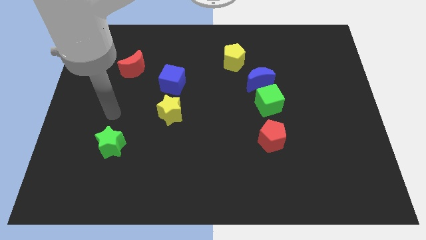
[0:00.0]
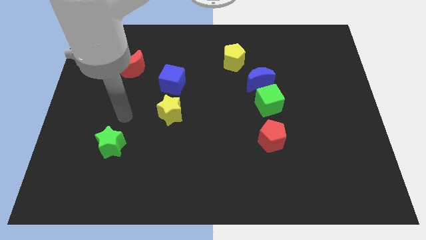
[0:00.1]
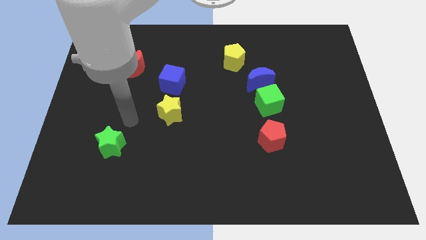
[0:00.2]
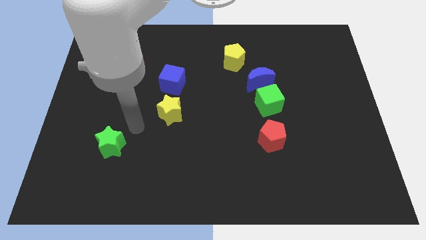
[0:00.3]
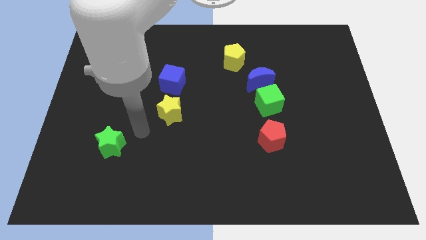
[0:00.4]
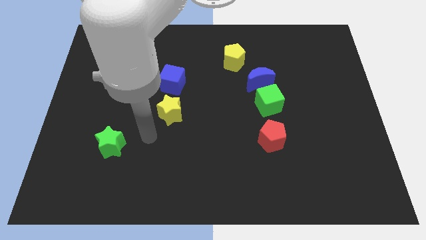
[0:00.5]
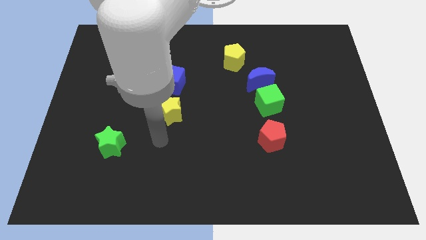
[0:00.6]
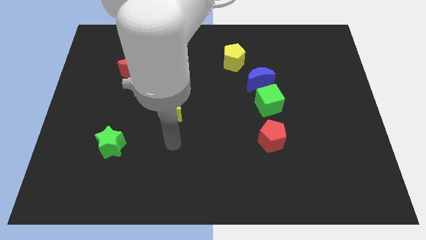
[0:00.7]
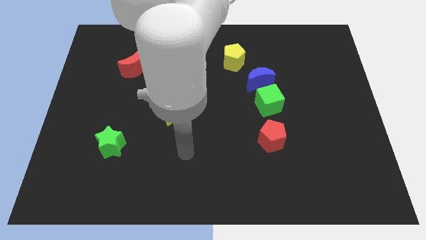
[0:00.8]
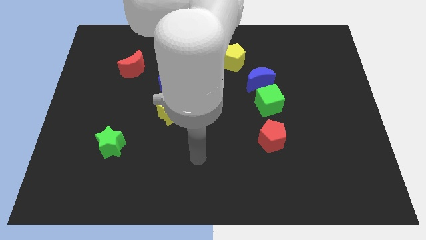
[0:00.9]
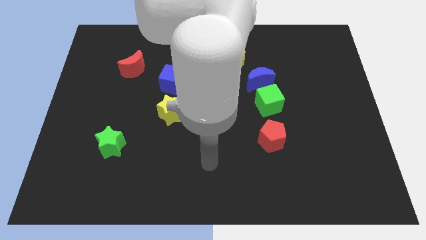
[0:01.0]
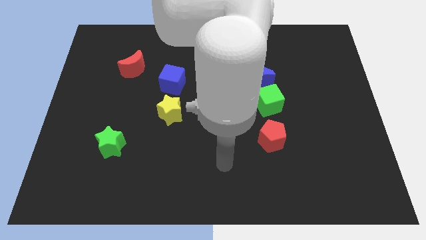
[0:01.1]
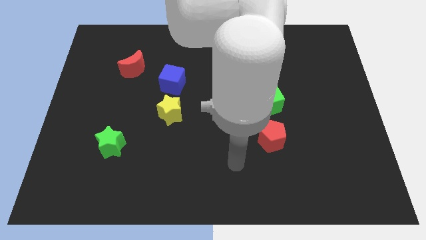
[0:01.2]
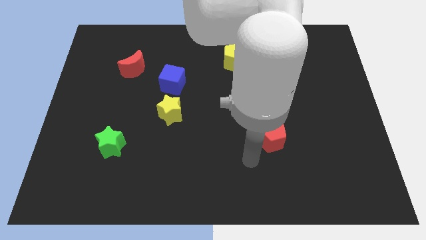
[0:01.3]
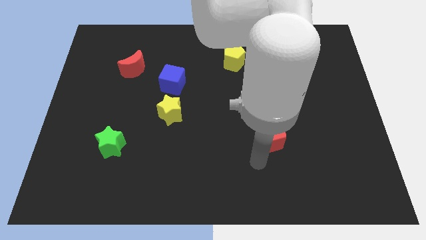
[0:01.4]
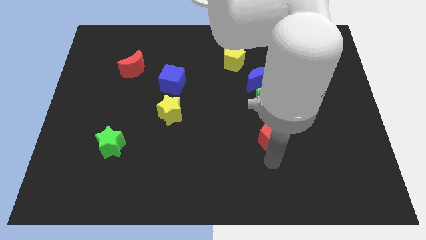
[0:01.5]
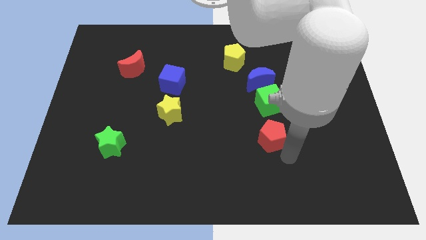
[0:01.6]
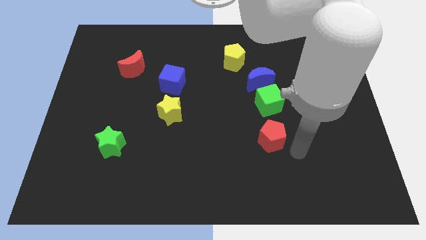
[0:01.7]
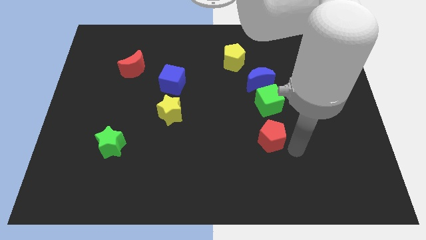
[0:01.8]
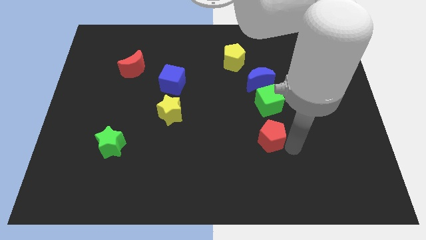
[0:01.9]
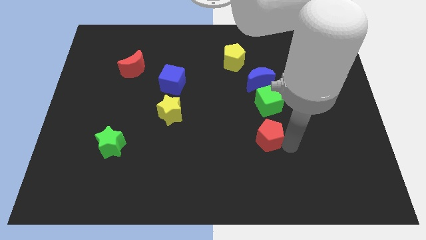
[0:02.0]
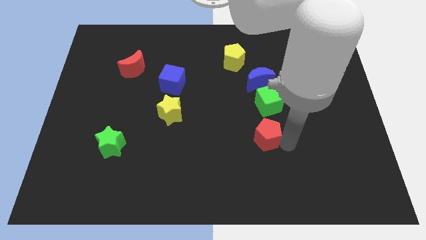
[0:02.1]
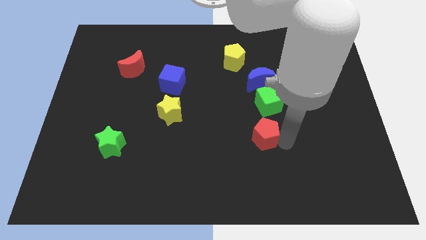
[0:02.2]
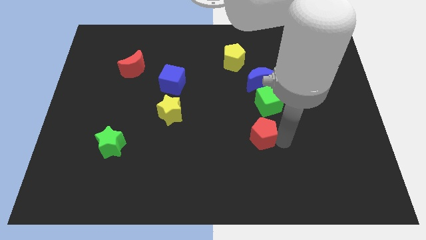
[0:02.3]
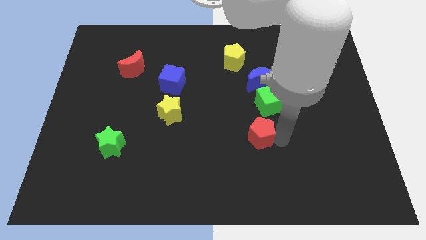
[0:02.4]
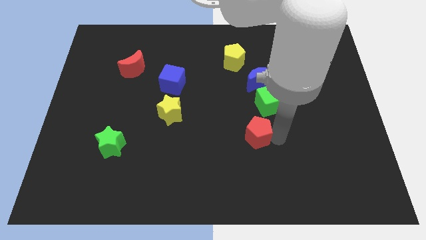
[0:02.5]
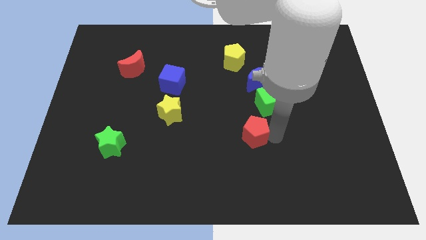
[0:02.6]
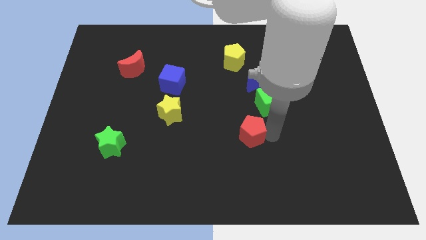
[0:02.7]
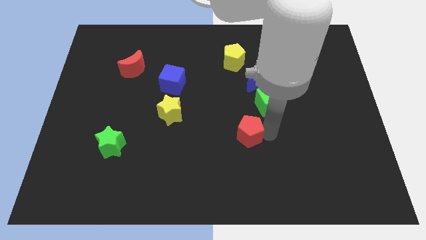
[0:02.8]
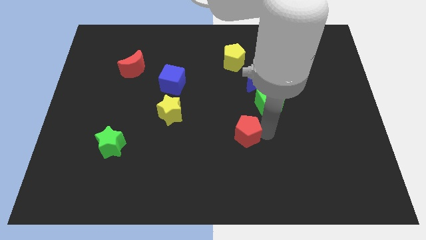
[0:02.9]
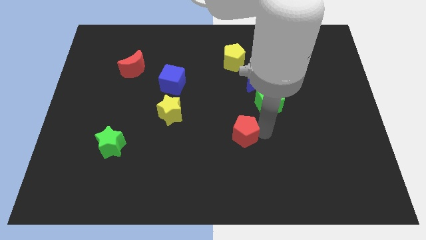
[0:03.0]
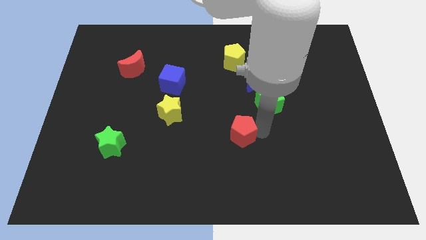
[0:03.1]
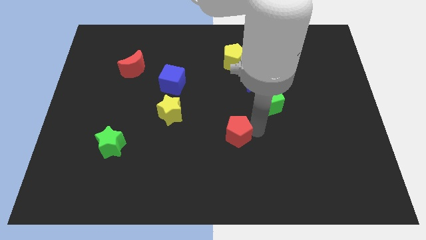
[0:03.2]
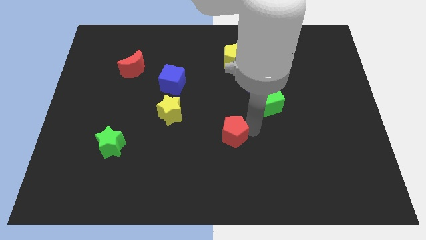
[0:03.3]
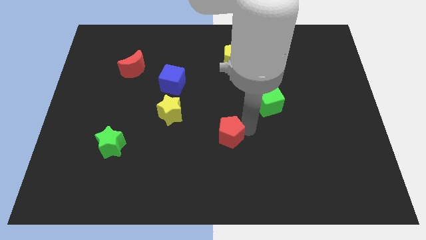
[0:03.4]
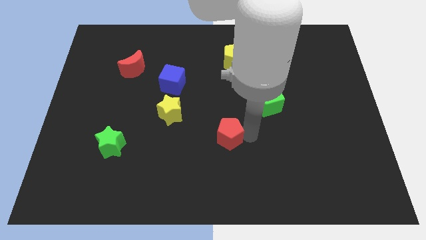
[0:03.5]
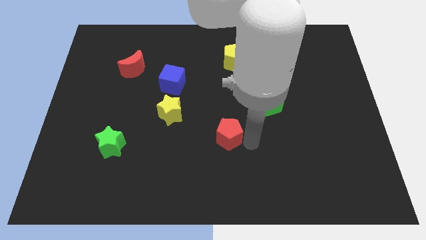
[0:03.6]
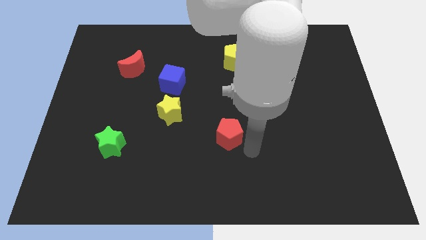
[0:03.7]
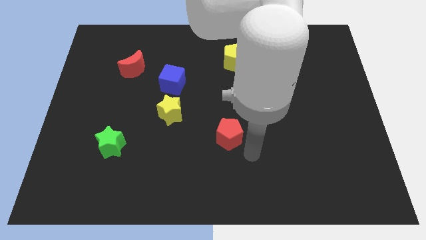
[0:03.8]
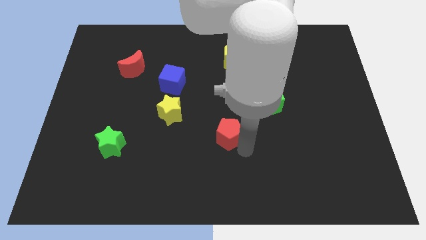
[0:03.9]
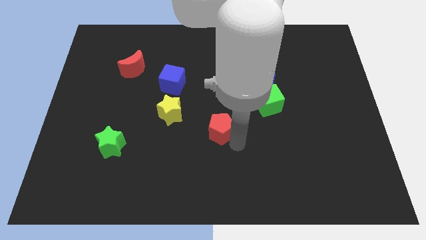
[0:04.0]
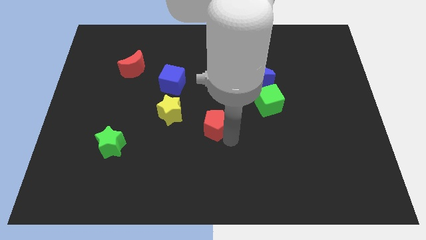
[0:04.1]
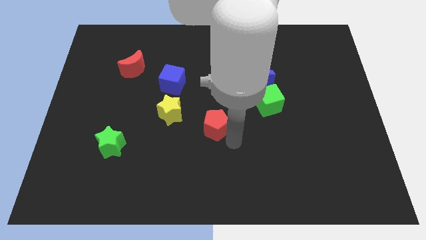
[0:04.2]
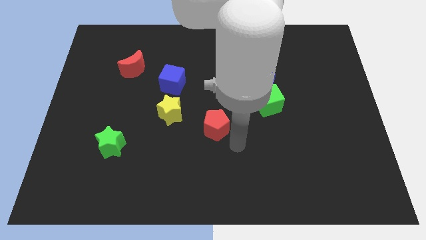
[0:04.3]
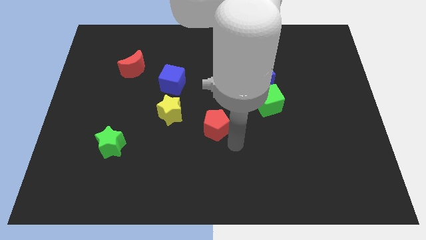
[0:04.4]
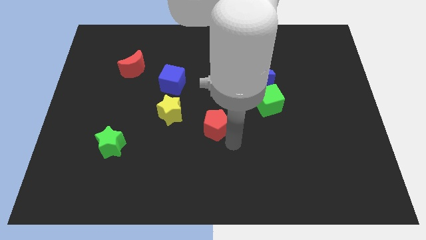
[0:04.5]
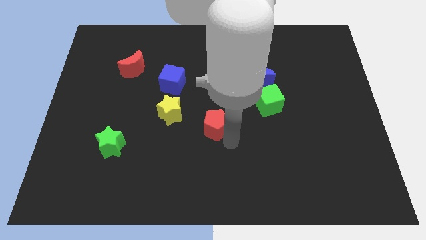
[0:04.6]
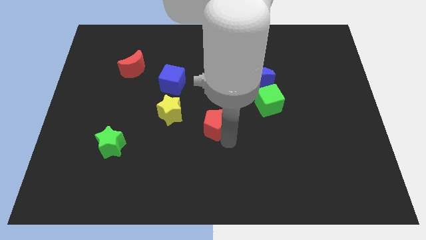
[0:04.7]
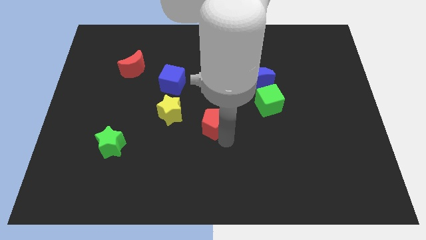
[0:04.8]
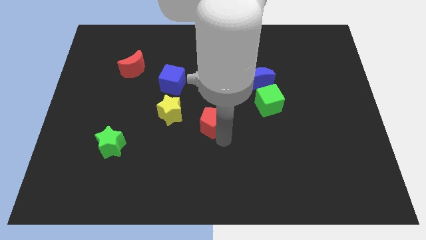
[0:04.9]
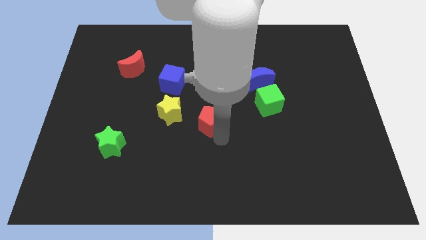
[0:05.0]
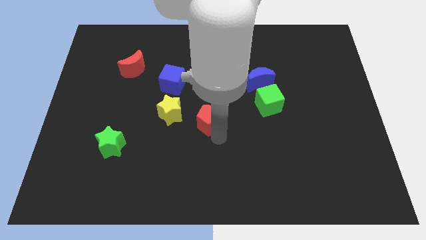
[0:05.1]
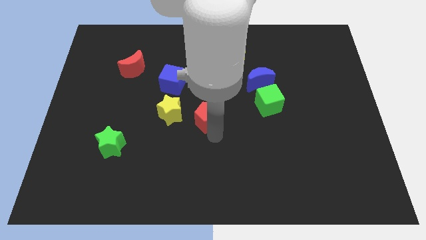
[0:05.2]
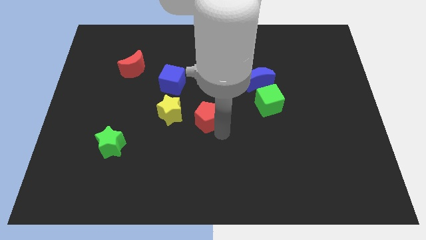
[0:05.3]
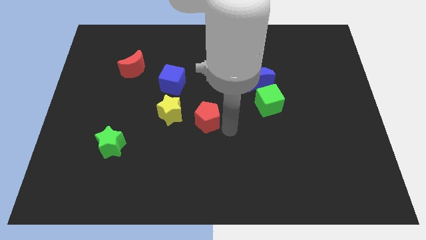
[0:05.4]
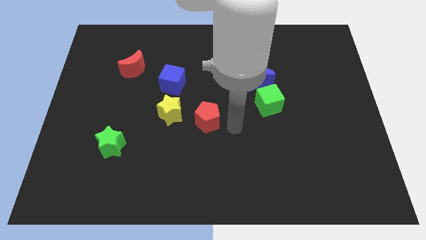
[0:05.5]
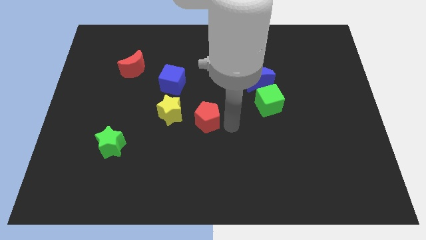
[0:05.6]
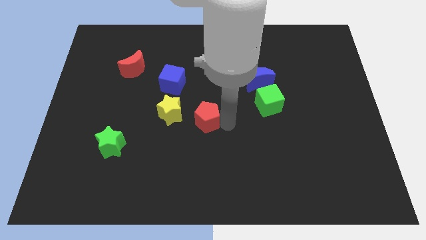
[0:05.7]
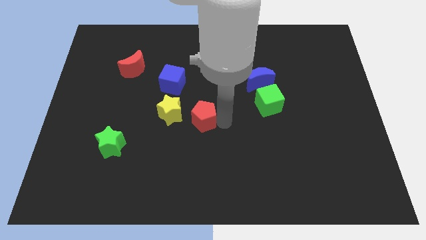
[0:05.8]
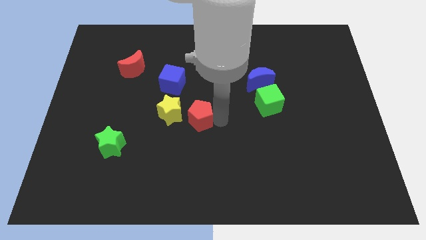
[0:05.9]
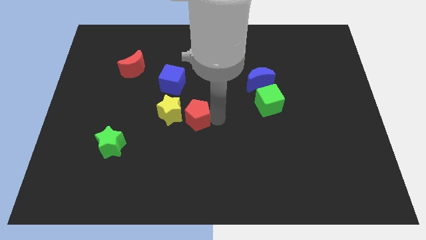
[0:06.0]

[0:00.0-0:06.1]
slide the red pentagon next to the yellow star

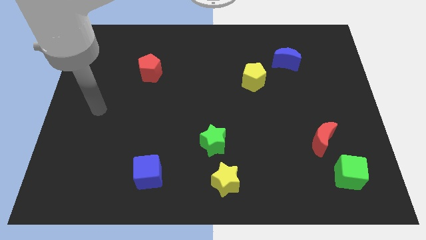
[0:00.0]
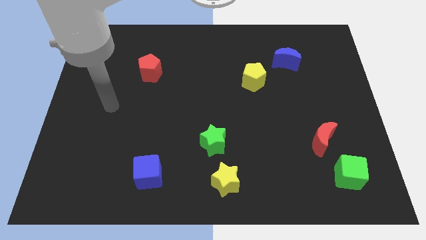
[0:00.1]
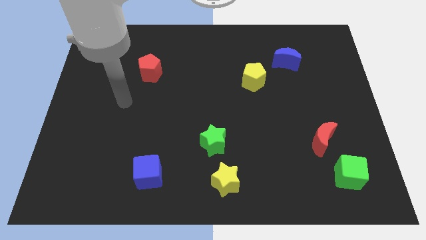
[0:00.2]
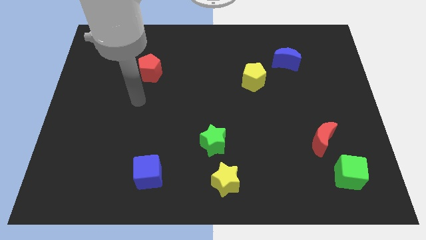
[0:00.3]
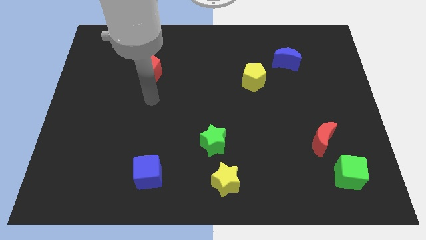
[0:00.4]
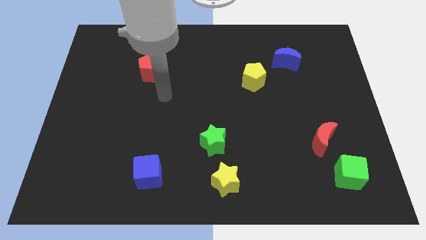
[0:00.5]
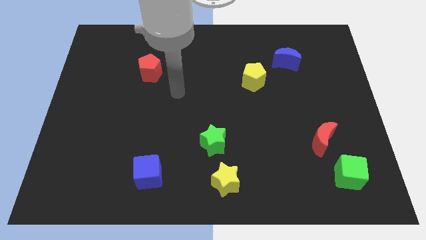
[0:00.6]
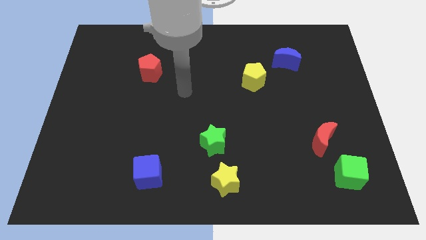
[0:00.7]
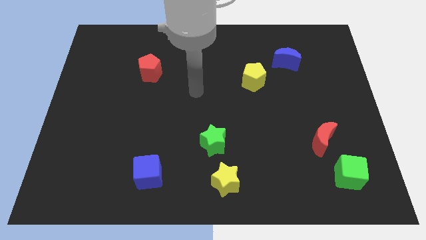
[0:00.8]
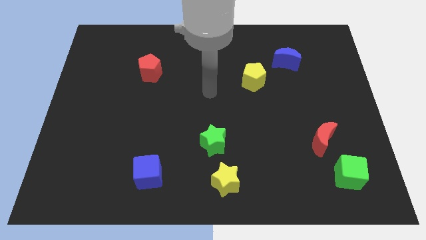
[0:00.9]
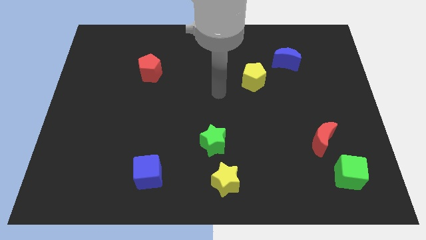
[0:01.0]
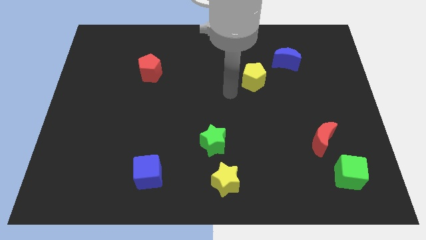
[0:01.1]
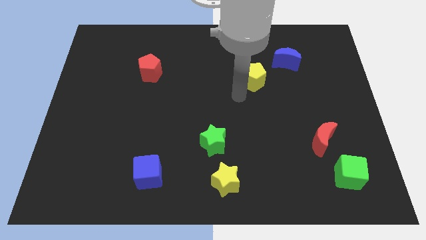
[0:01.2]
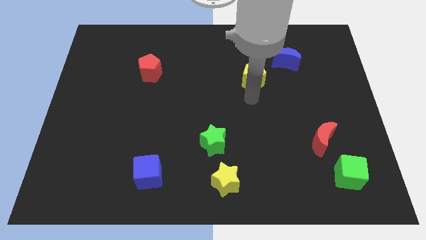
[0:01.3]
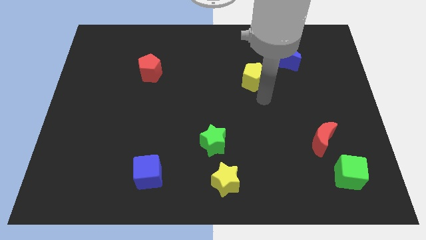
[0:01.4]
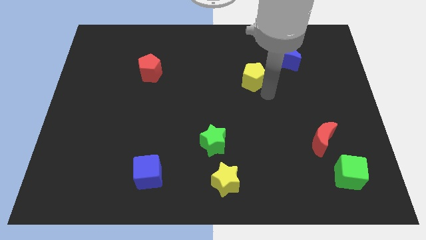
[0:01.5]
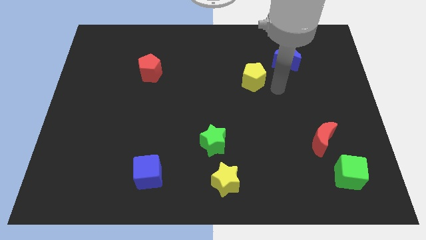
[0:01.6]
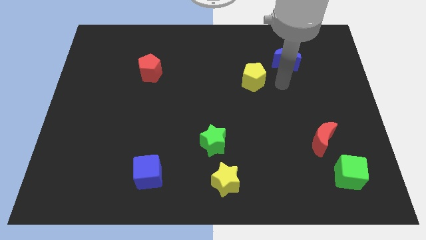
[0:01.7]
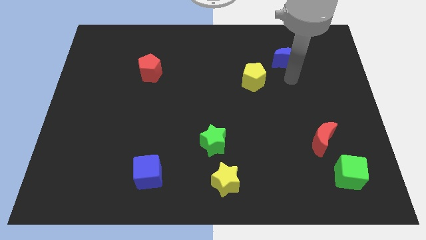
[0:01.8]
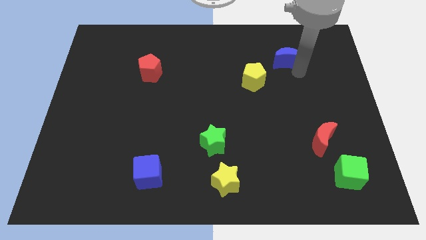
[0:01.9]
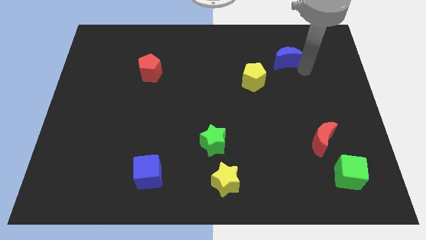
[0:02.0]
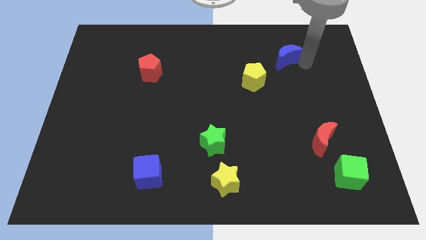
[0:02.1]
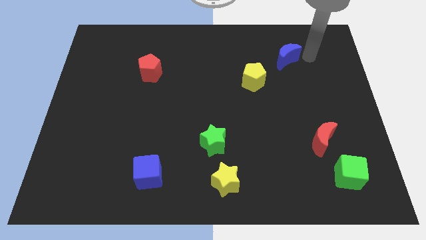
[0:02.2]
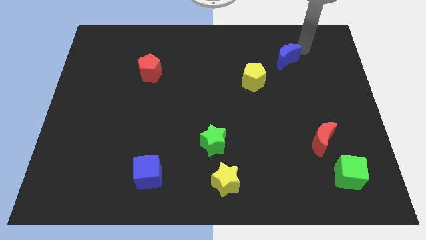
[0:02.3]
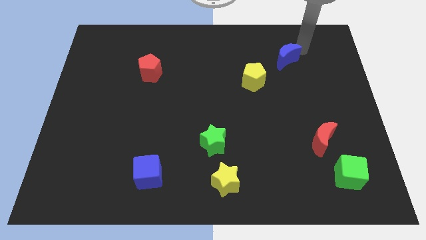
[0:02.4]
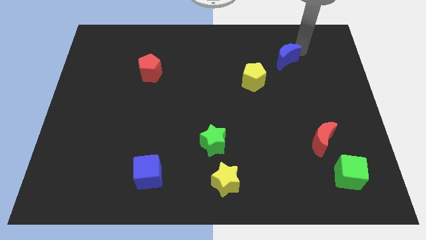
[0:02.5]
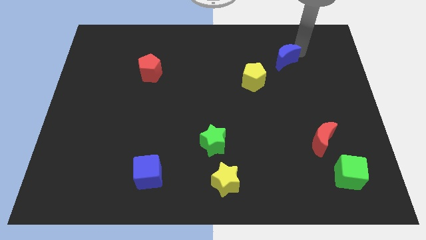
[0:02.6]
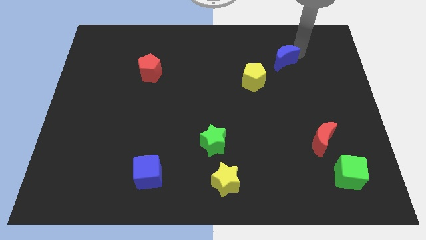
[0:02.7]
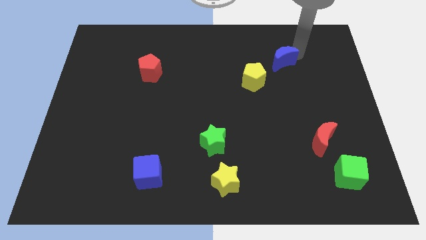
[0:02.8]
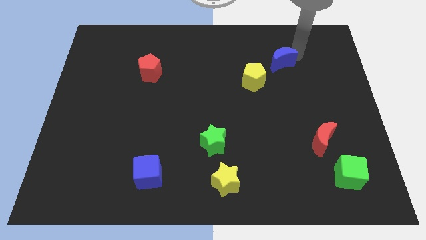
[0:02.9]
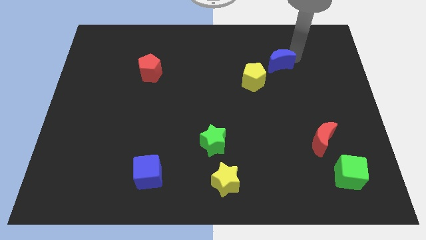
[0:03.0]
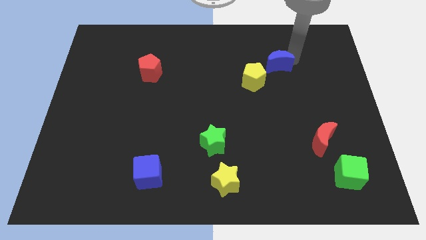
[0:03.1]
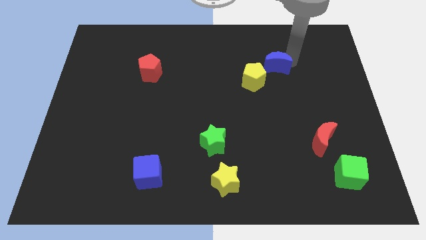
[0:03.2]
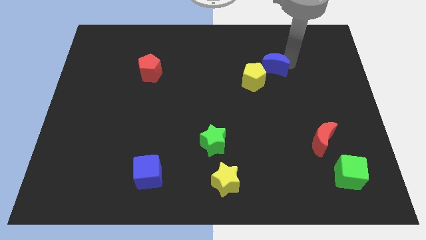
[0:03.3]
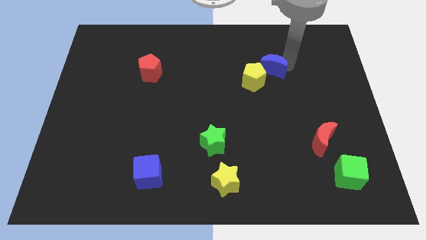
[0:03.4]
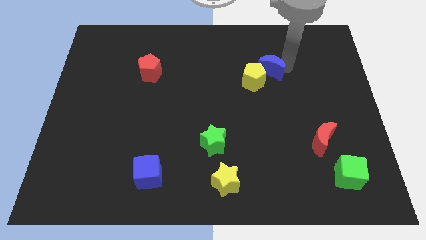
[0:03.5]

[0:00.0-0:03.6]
move the blue moon towards the yellow pentagon
